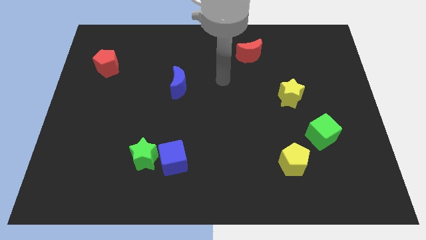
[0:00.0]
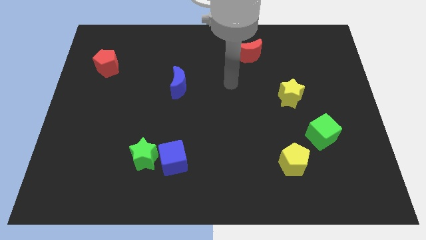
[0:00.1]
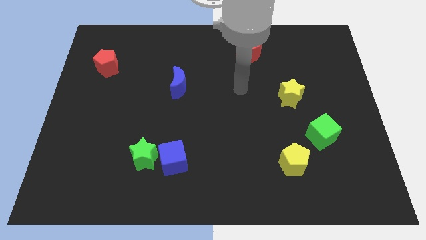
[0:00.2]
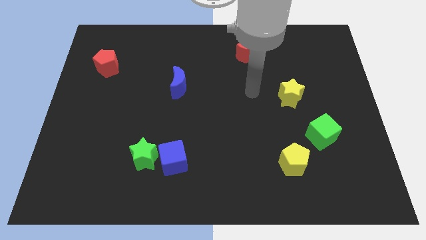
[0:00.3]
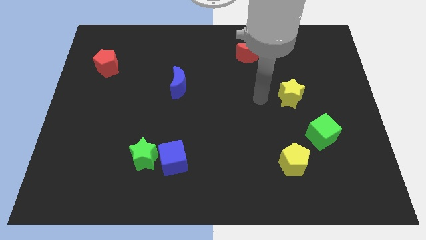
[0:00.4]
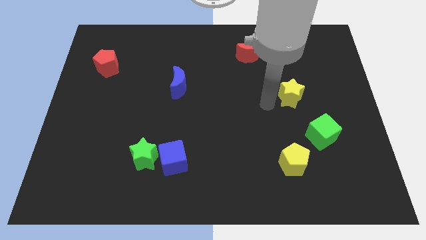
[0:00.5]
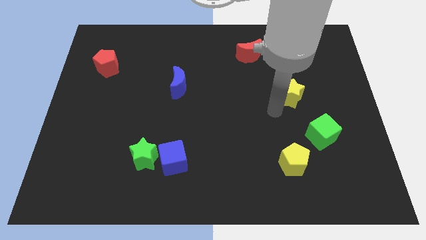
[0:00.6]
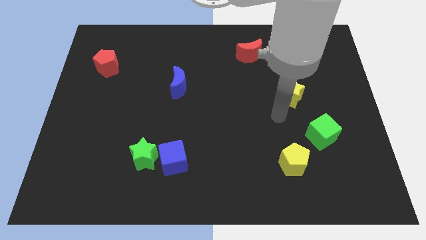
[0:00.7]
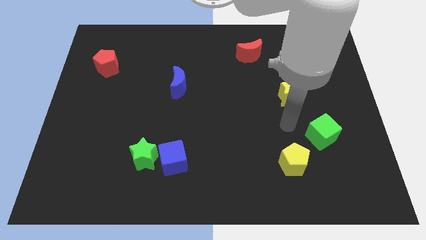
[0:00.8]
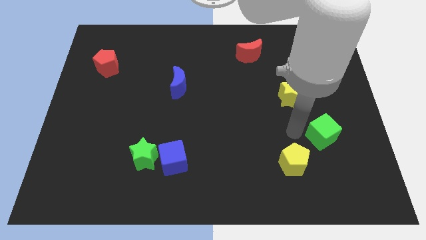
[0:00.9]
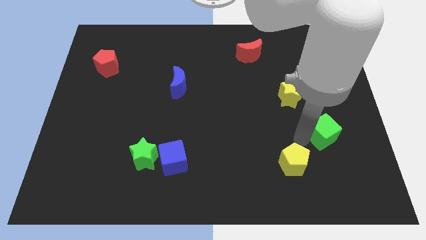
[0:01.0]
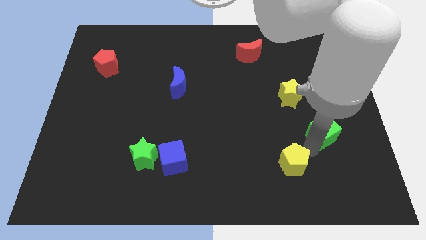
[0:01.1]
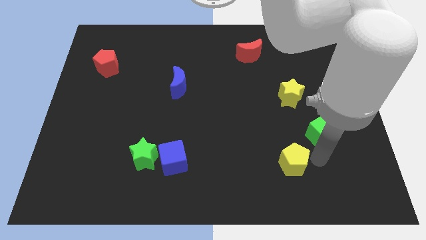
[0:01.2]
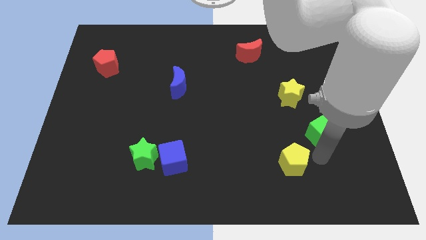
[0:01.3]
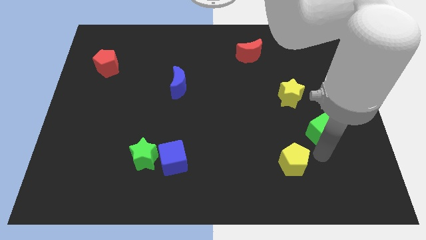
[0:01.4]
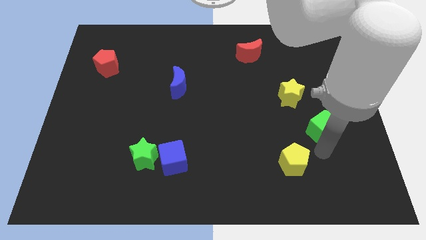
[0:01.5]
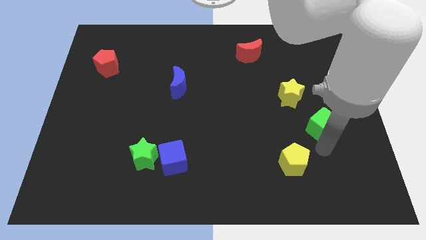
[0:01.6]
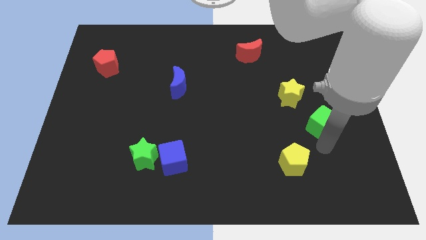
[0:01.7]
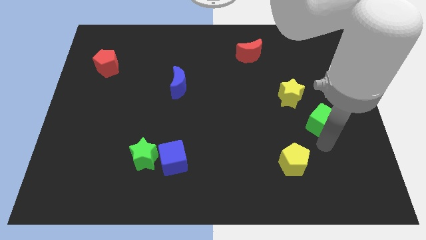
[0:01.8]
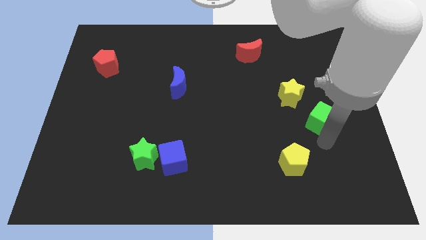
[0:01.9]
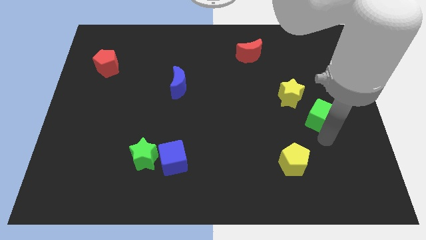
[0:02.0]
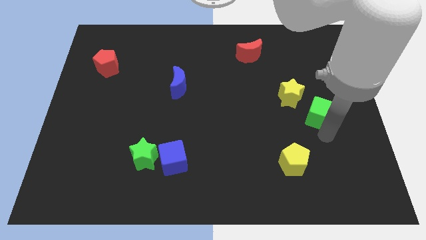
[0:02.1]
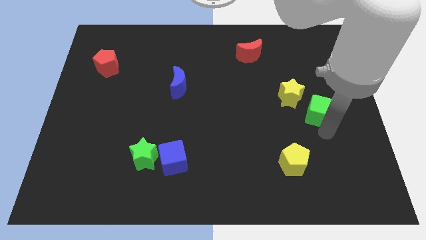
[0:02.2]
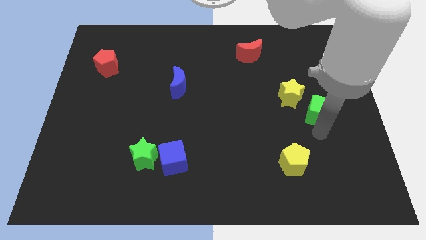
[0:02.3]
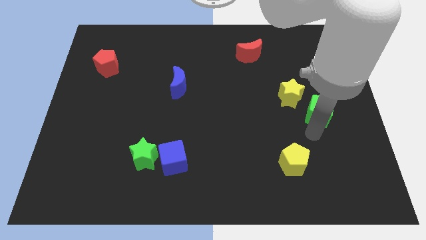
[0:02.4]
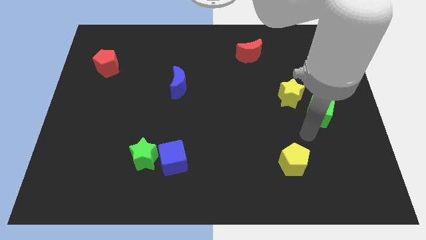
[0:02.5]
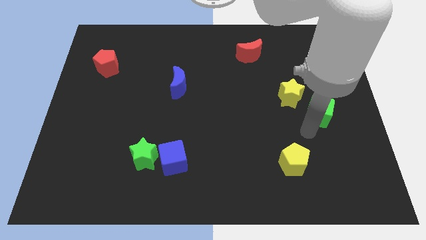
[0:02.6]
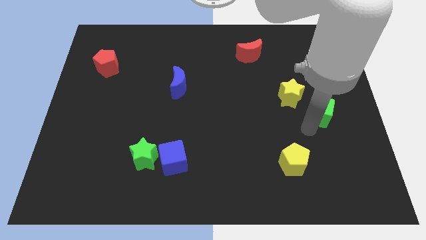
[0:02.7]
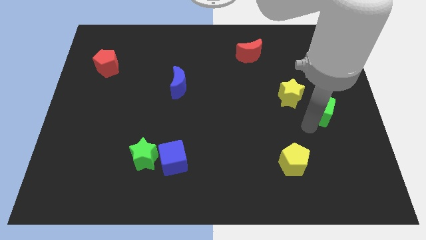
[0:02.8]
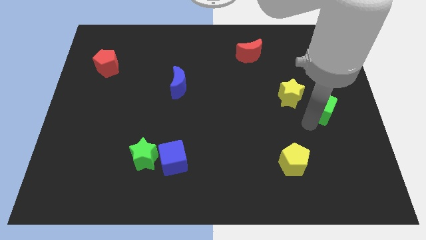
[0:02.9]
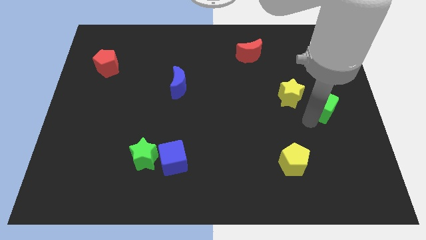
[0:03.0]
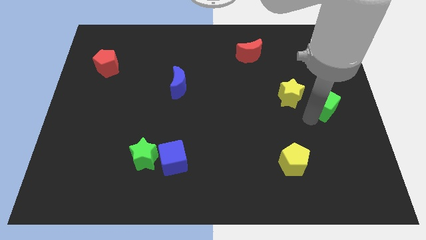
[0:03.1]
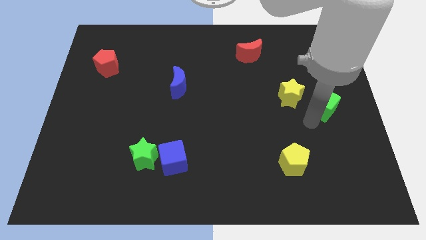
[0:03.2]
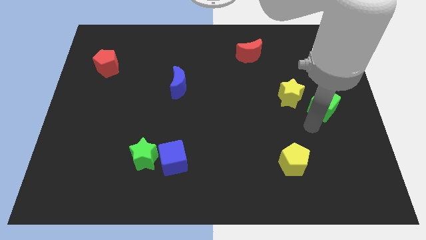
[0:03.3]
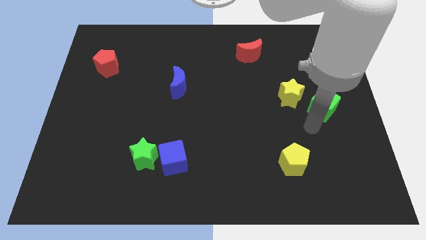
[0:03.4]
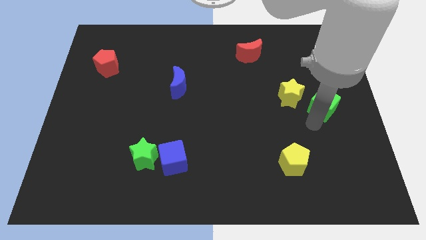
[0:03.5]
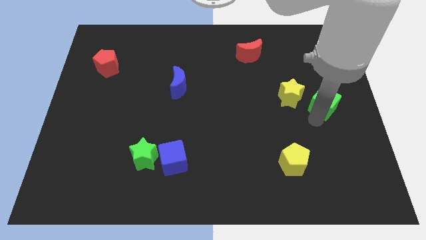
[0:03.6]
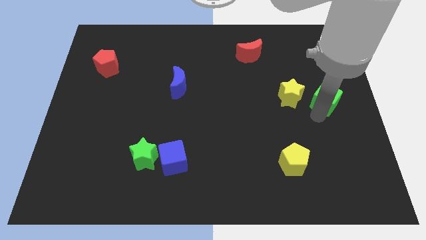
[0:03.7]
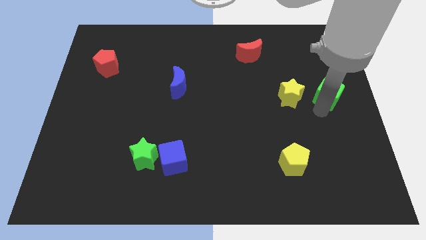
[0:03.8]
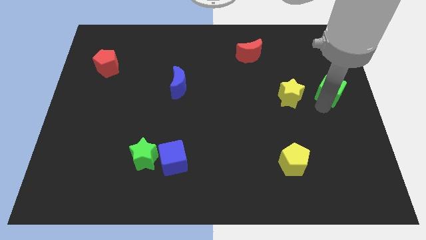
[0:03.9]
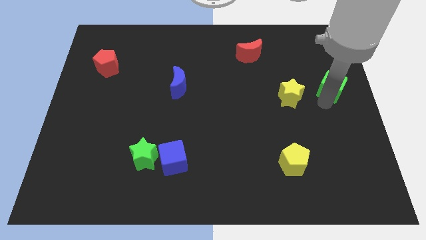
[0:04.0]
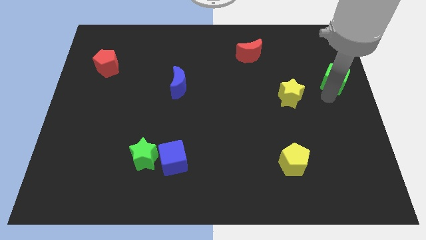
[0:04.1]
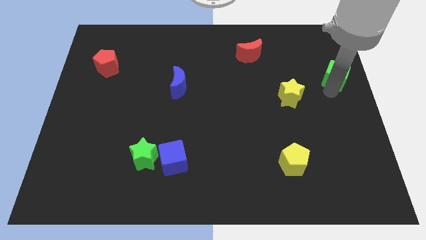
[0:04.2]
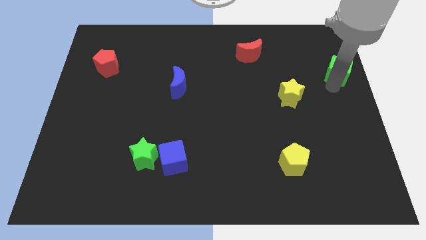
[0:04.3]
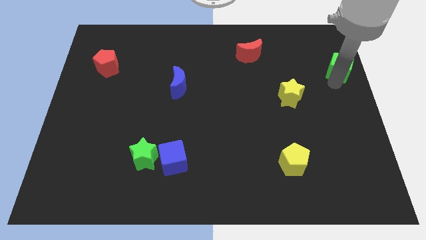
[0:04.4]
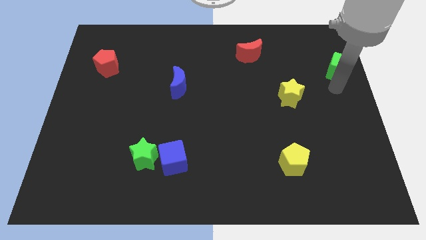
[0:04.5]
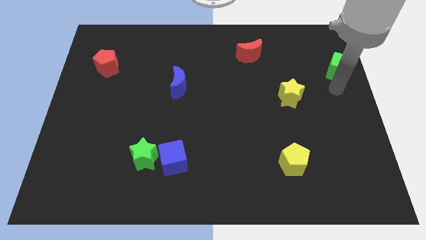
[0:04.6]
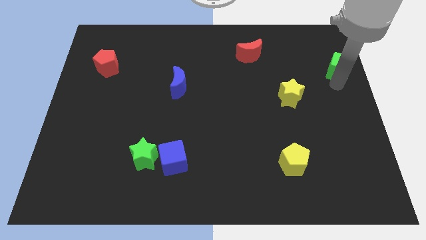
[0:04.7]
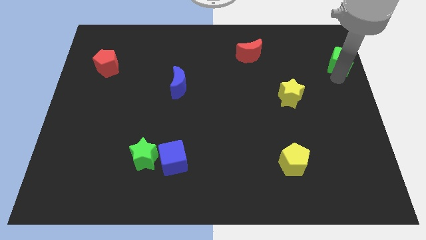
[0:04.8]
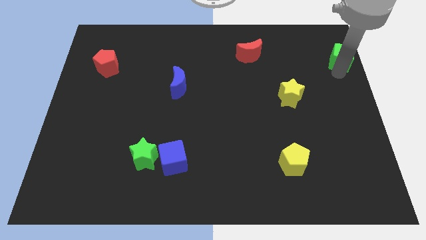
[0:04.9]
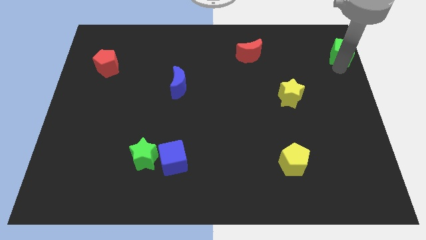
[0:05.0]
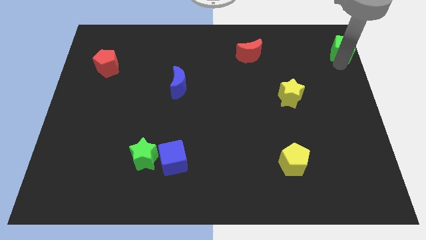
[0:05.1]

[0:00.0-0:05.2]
slide the green cube to the upper right corner

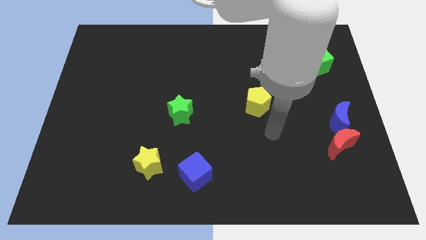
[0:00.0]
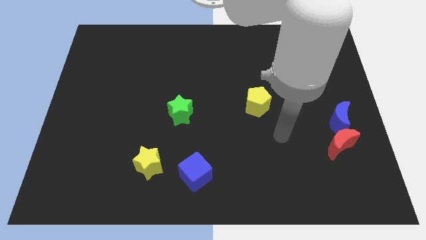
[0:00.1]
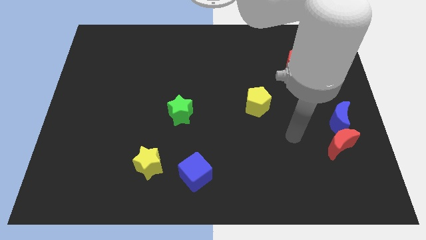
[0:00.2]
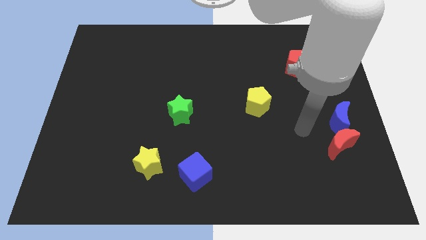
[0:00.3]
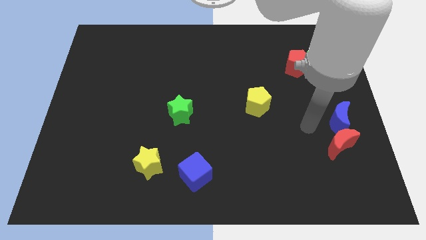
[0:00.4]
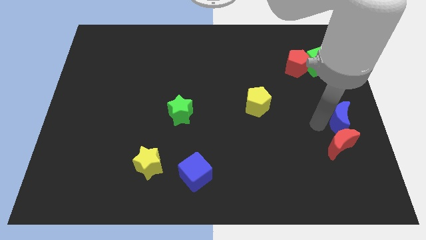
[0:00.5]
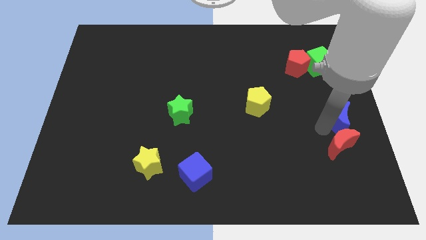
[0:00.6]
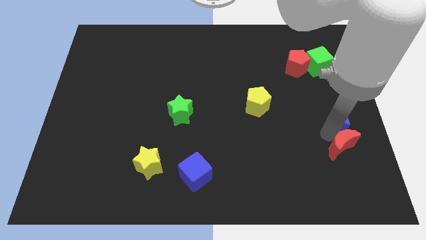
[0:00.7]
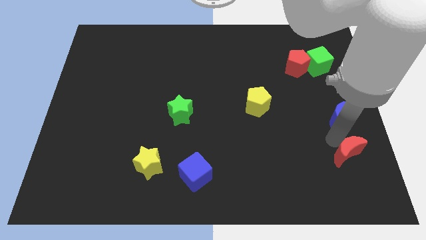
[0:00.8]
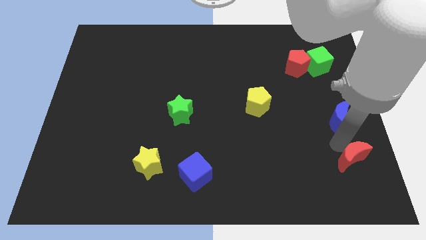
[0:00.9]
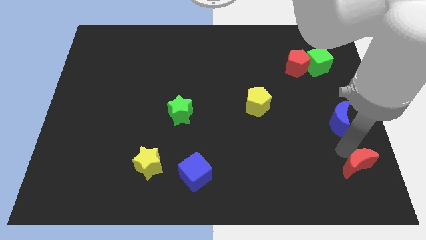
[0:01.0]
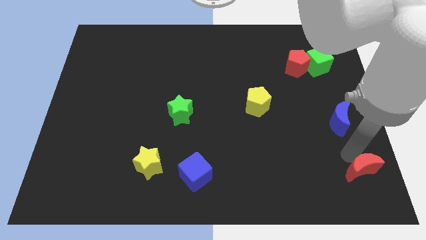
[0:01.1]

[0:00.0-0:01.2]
slide the red moon to the bottom right
